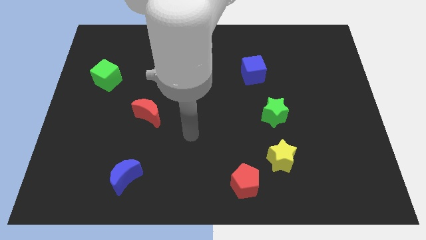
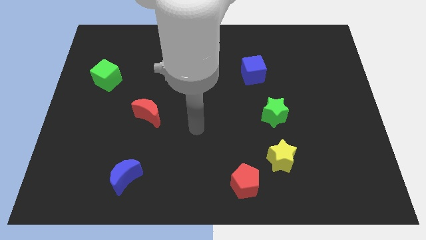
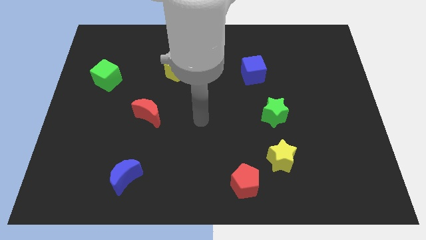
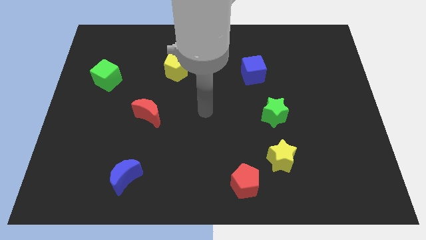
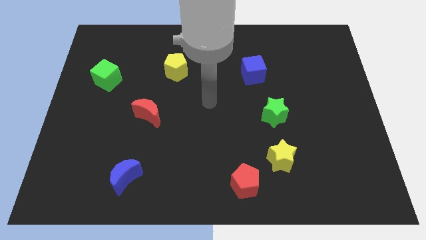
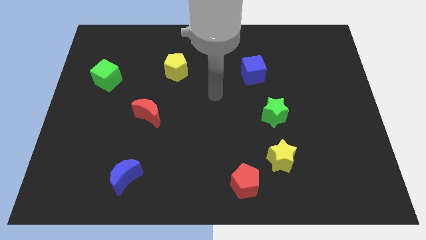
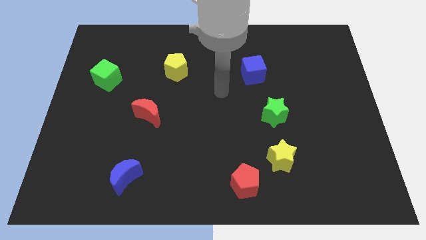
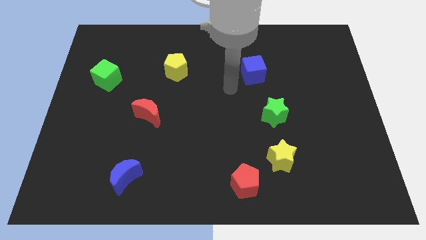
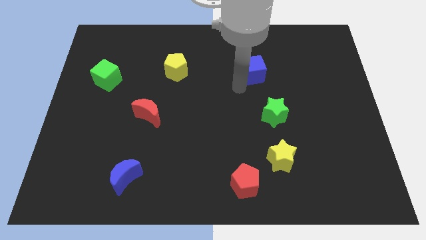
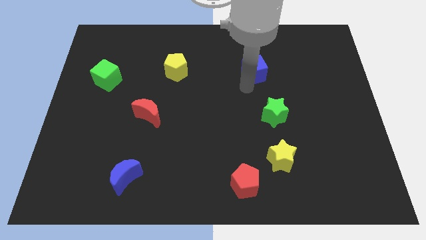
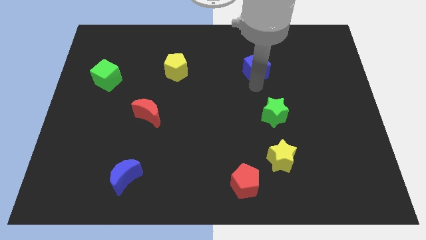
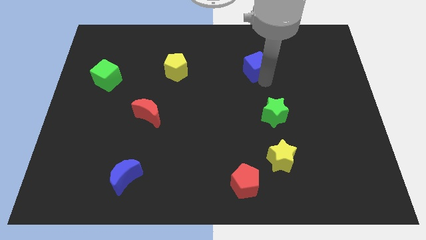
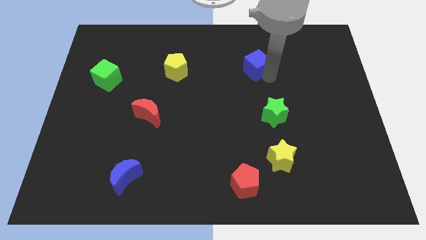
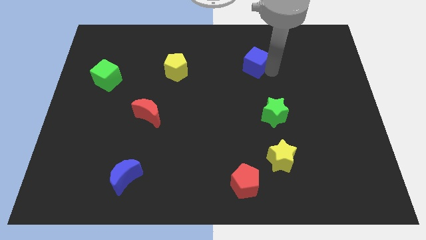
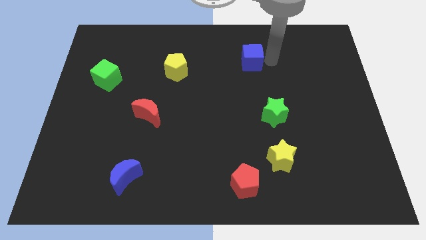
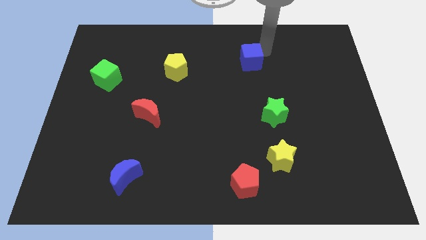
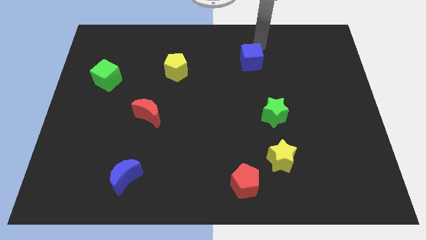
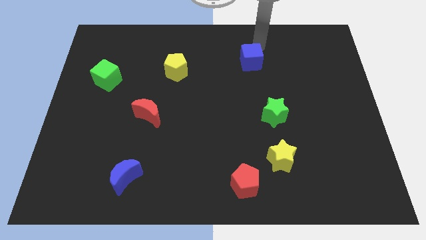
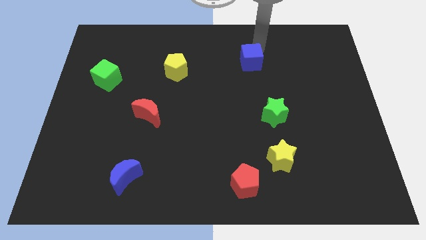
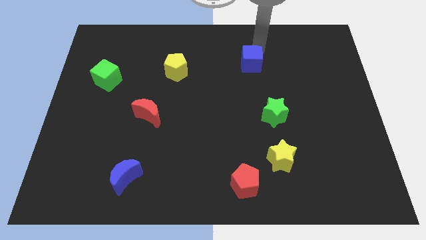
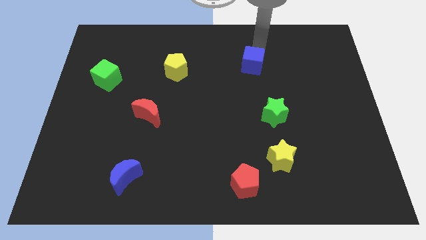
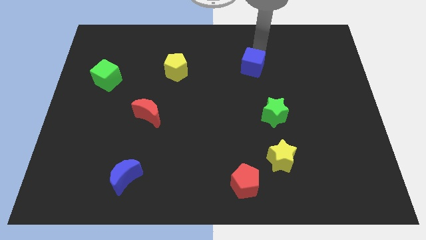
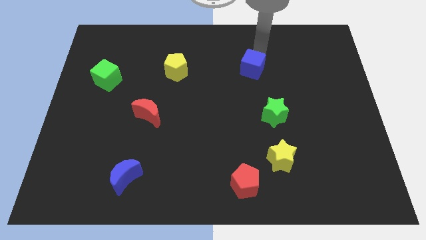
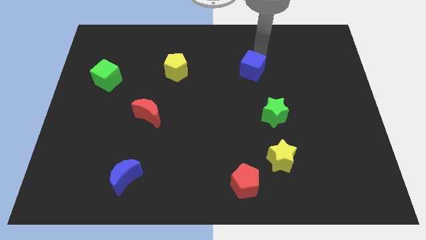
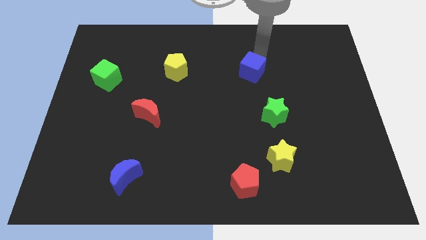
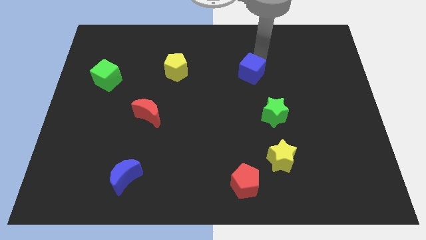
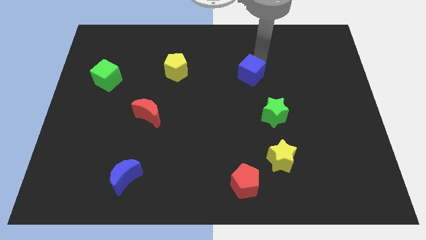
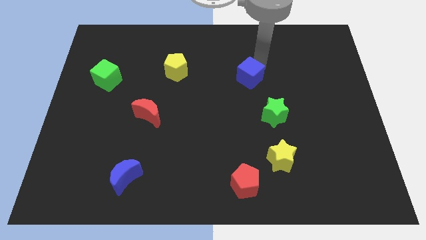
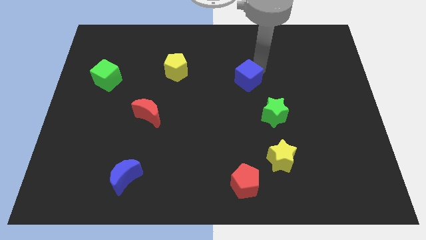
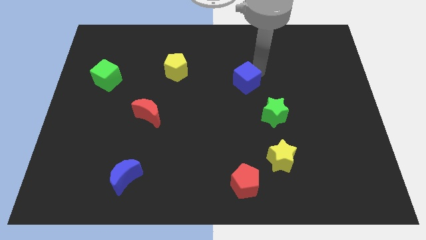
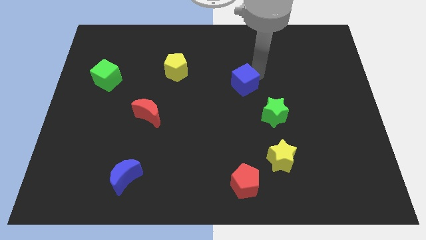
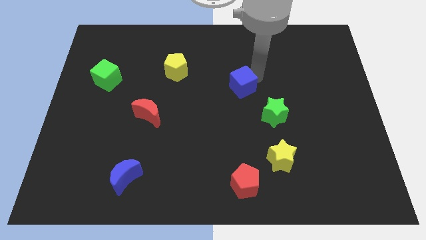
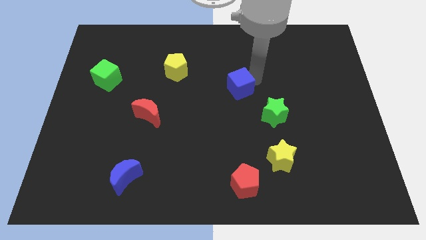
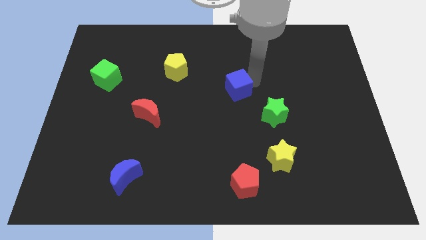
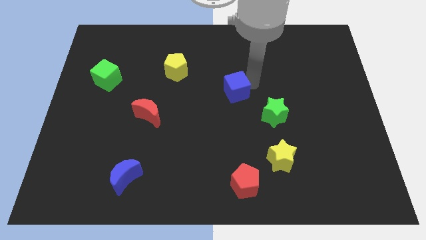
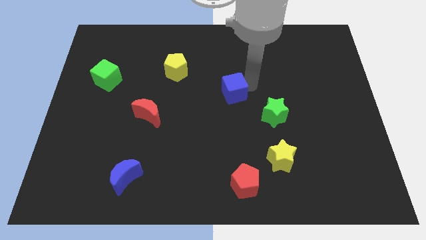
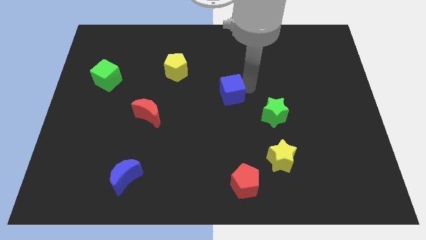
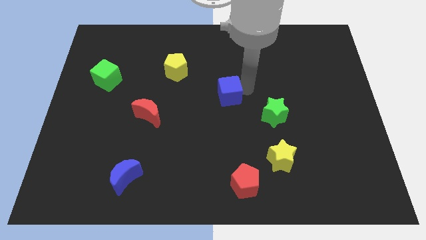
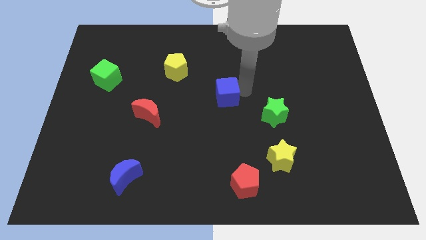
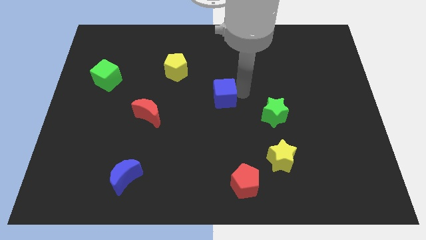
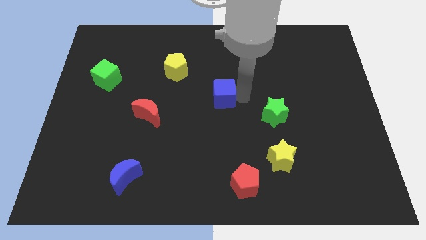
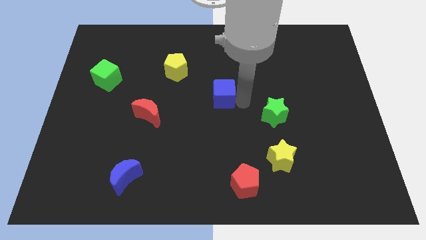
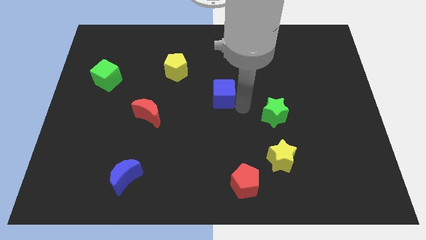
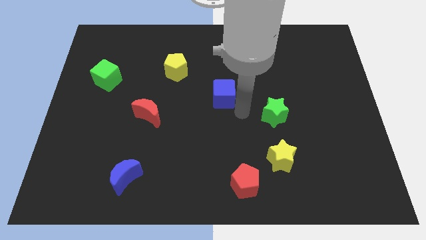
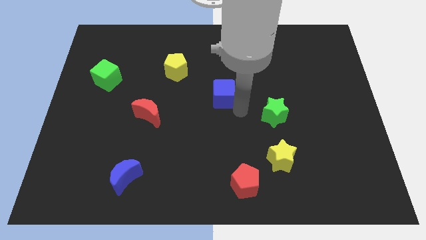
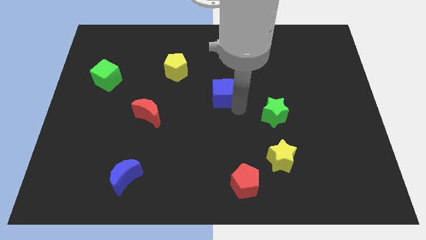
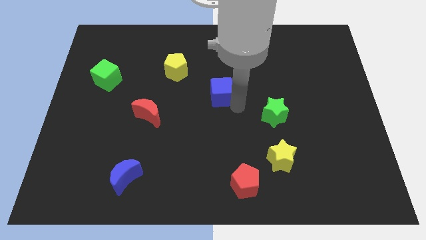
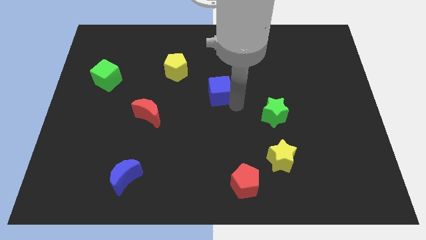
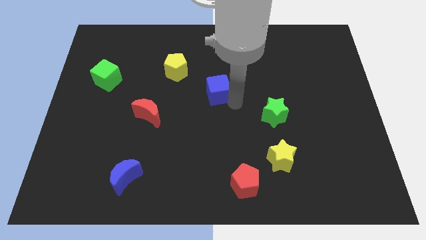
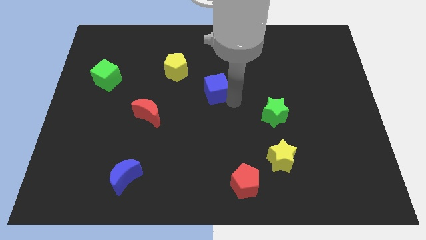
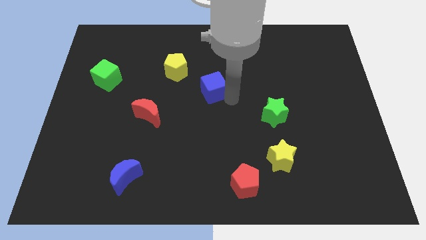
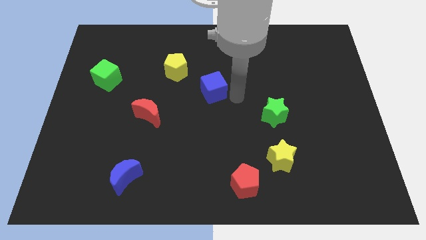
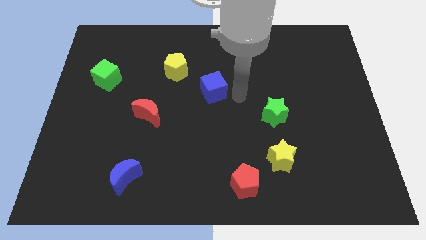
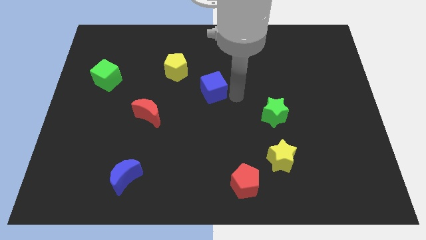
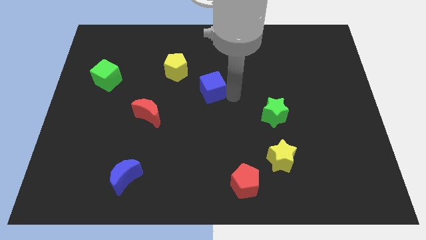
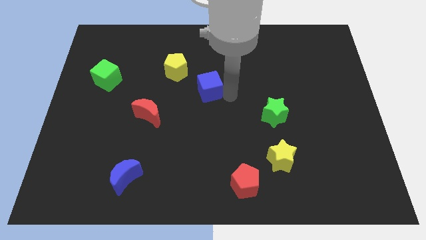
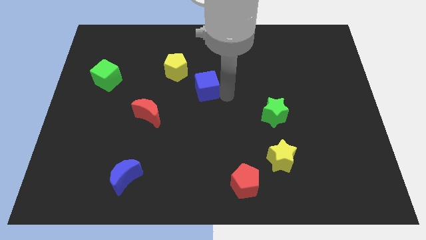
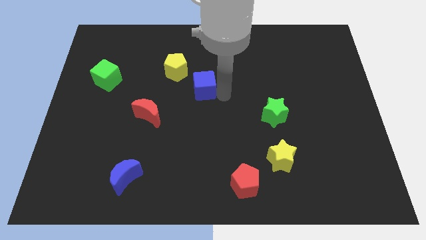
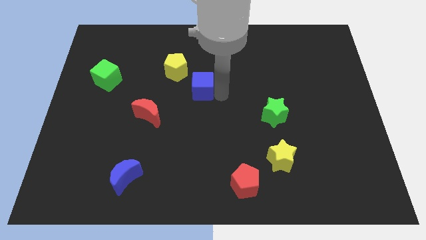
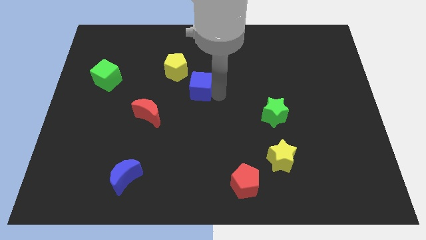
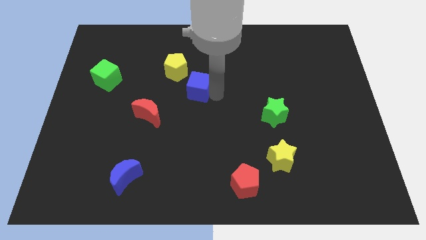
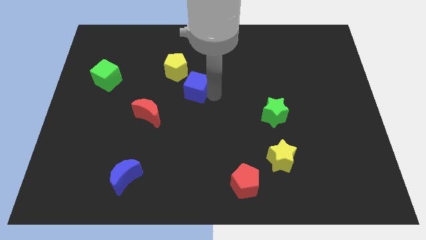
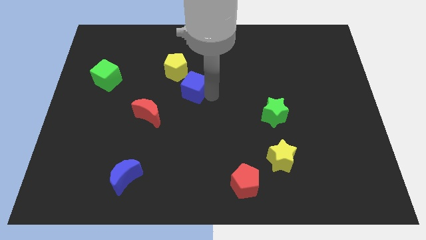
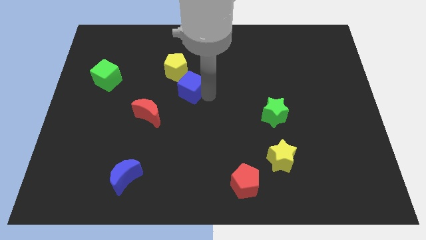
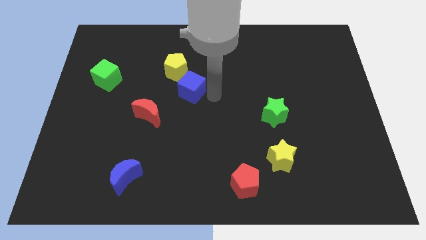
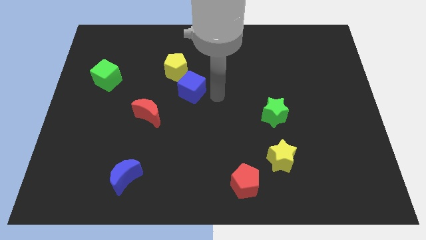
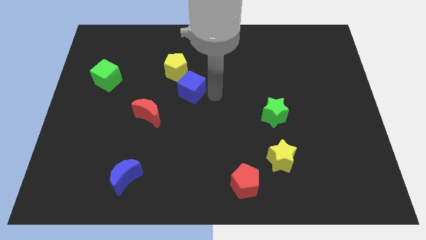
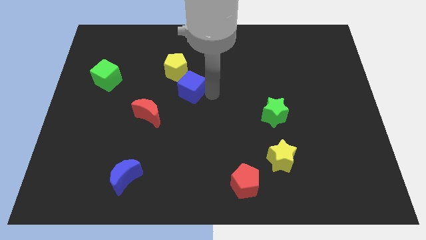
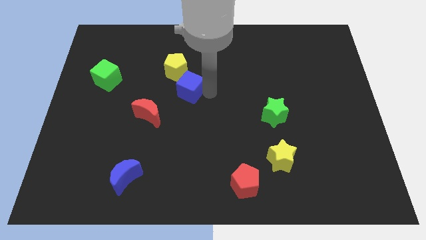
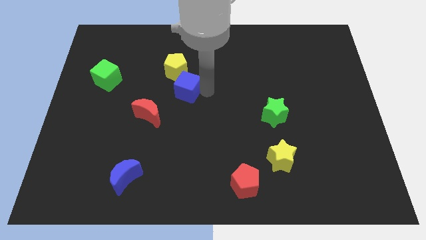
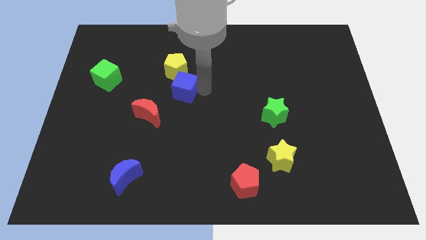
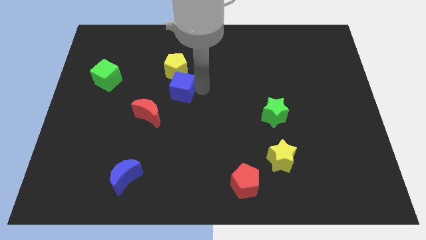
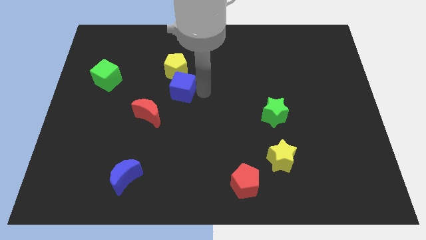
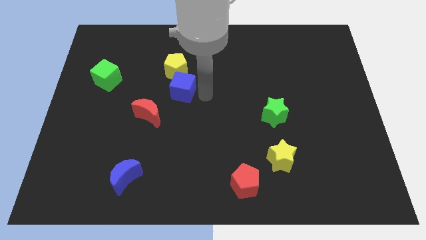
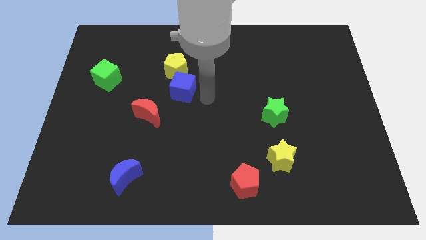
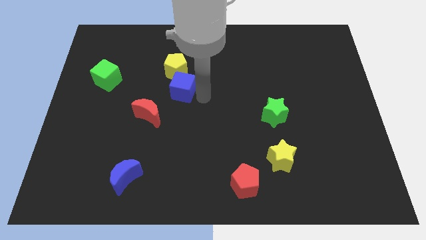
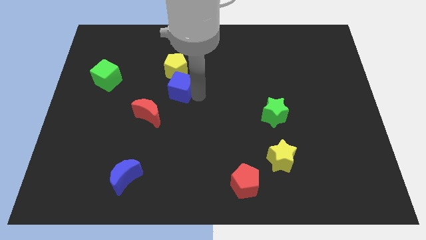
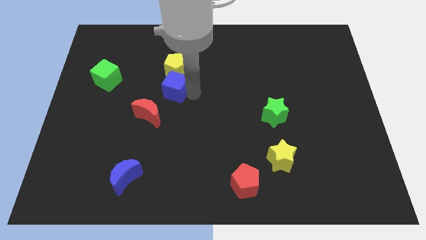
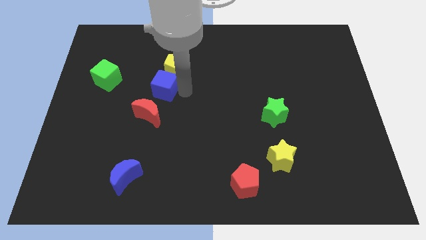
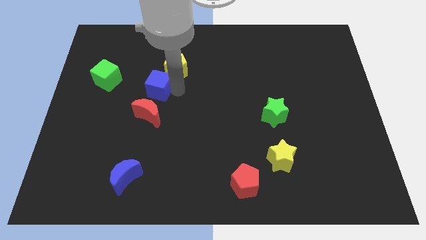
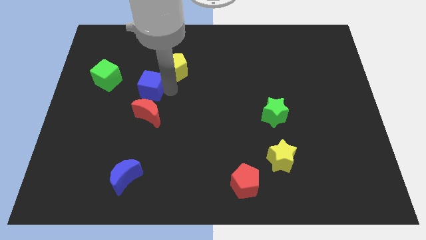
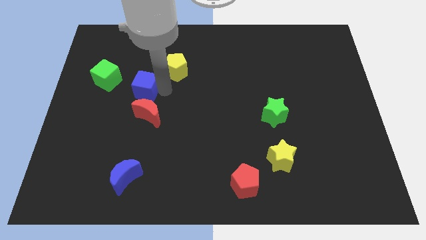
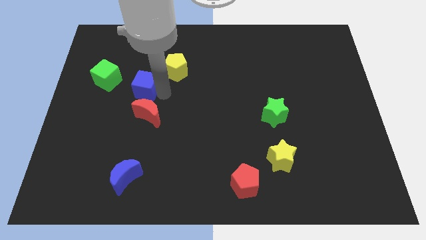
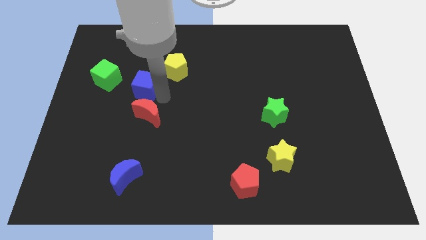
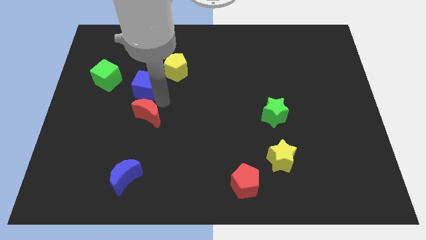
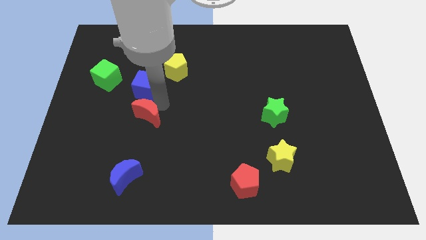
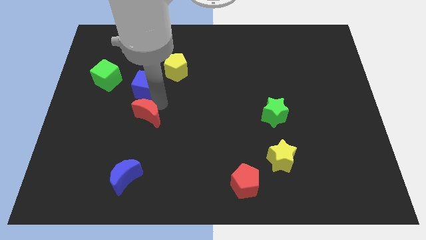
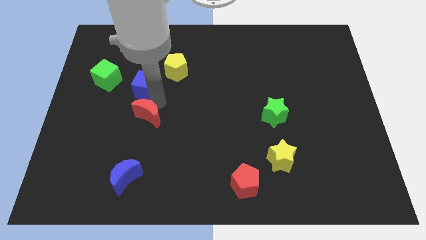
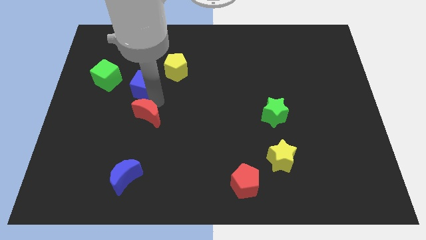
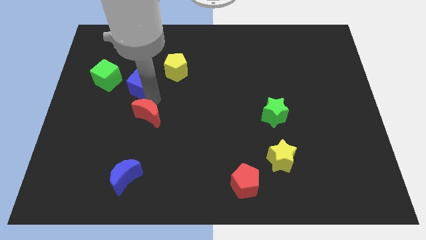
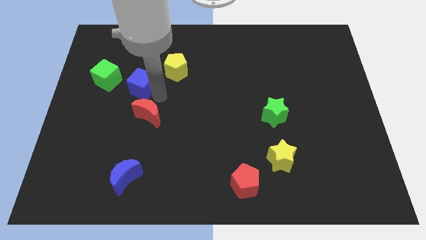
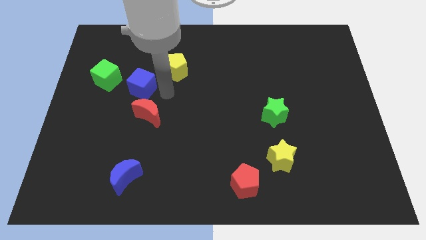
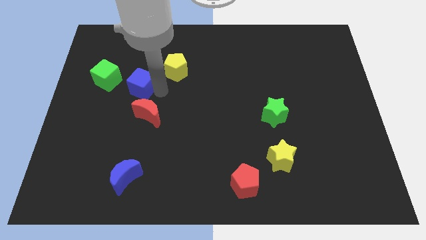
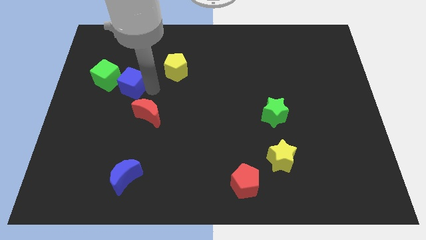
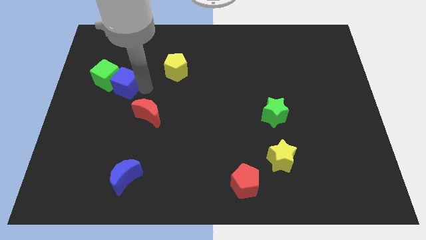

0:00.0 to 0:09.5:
slide the blue cube towards the green cube
